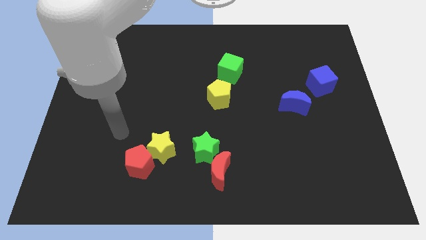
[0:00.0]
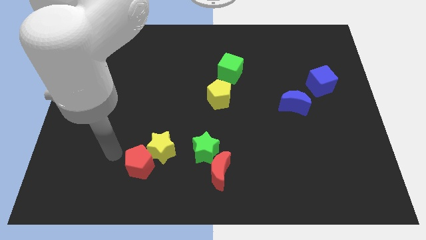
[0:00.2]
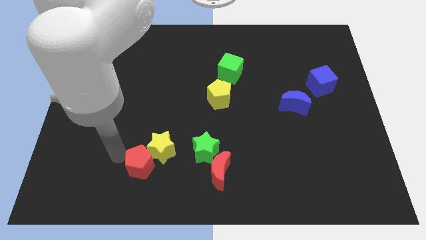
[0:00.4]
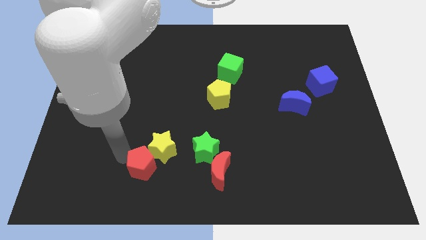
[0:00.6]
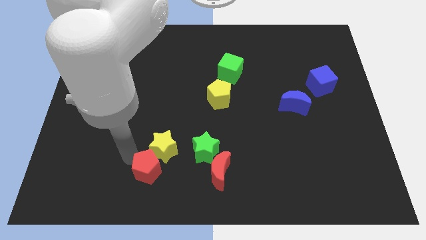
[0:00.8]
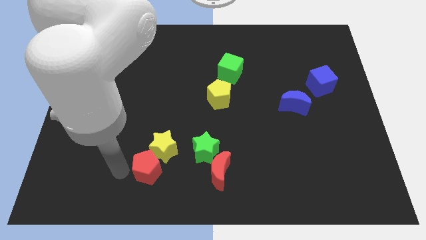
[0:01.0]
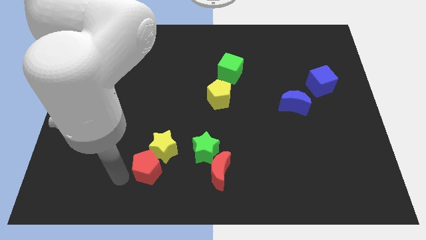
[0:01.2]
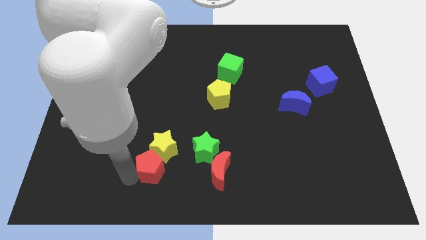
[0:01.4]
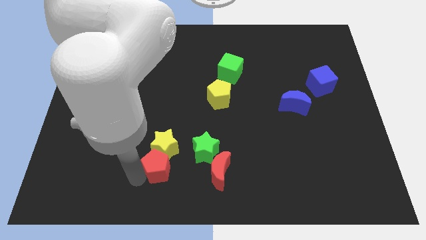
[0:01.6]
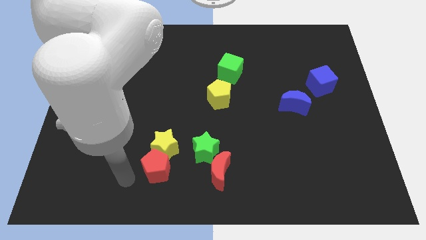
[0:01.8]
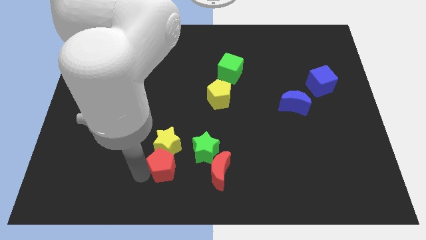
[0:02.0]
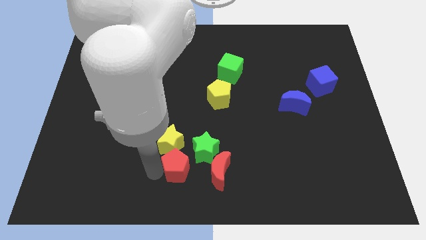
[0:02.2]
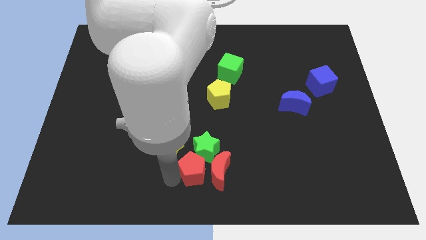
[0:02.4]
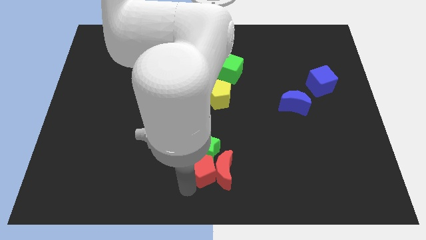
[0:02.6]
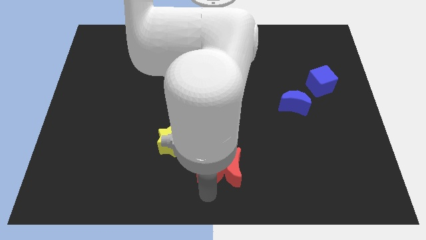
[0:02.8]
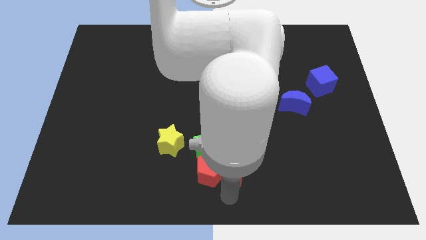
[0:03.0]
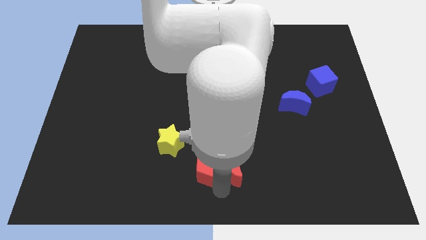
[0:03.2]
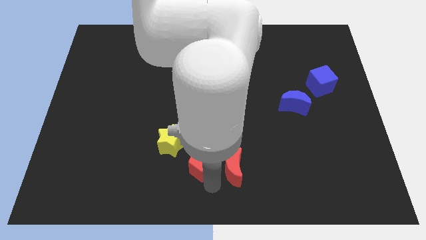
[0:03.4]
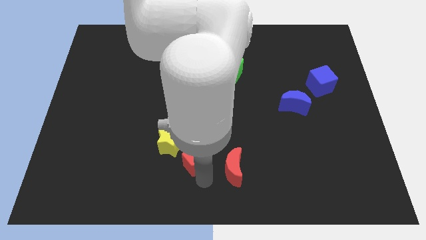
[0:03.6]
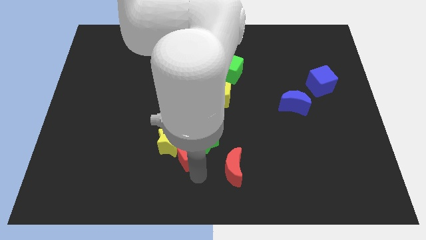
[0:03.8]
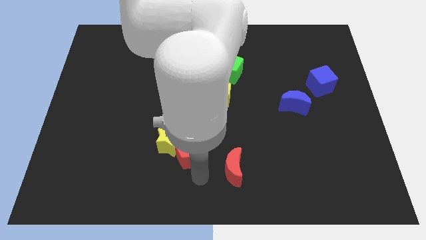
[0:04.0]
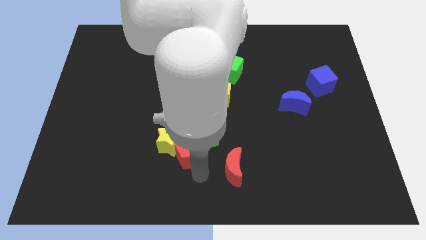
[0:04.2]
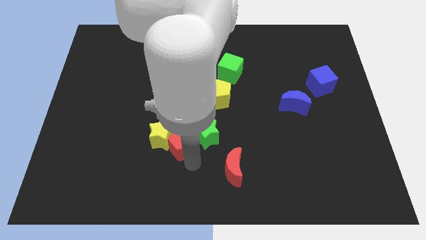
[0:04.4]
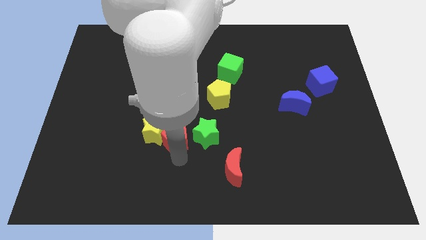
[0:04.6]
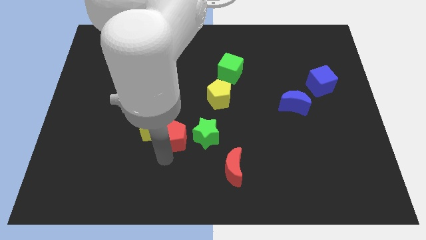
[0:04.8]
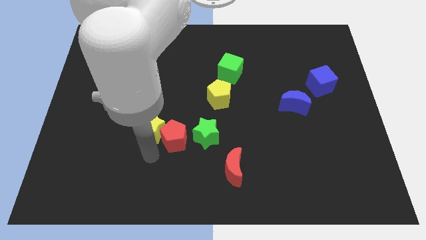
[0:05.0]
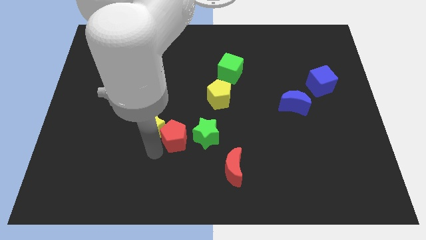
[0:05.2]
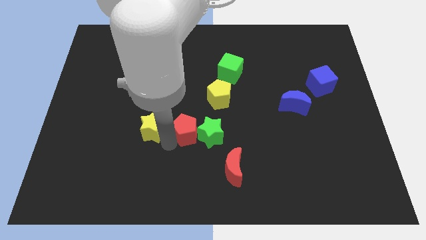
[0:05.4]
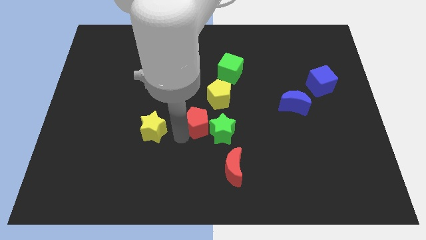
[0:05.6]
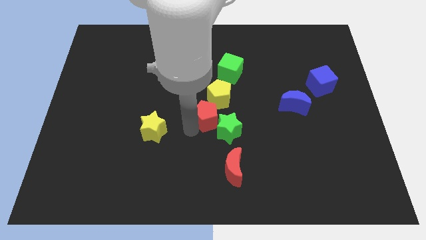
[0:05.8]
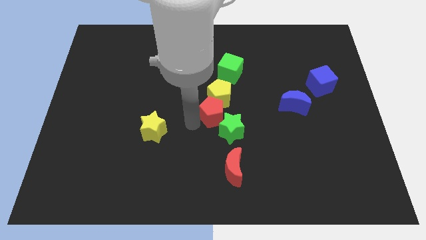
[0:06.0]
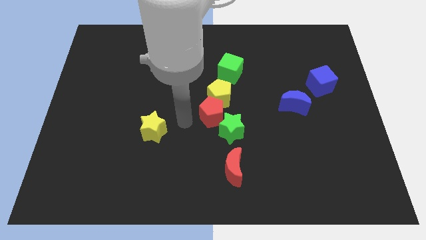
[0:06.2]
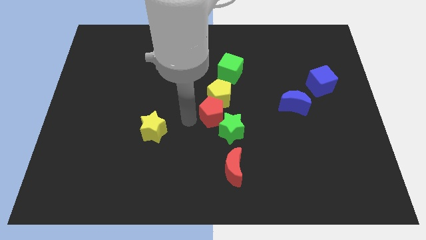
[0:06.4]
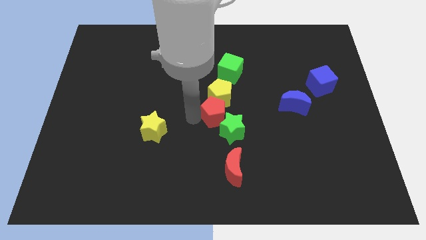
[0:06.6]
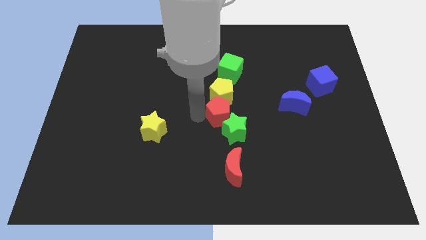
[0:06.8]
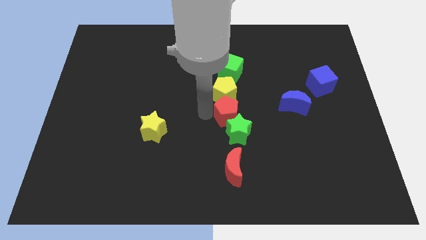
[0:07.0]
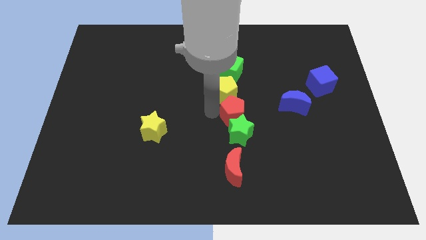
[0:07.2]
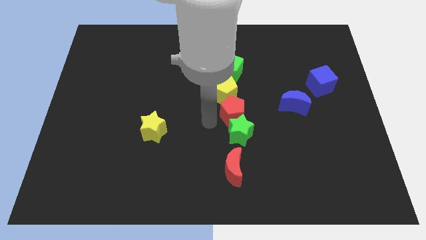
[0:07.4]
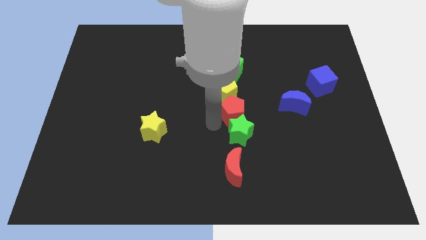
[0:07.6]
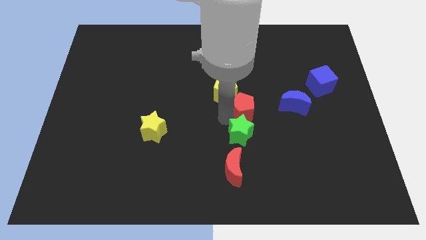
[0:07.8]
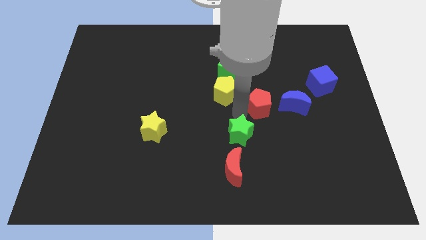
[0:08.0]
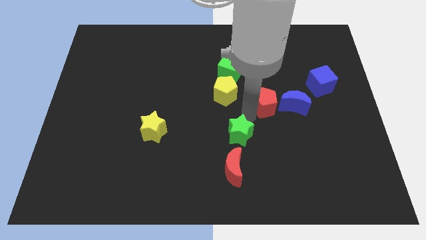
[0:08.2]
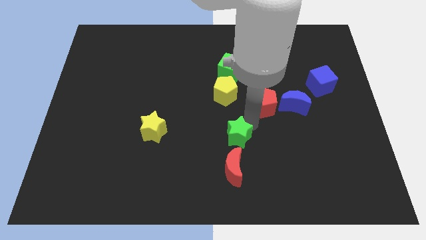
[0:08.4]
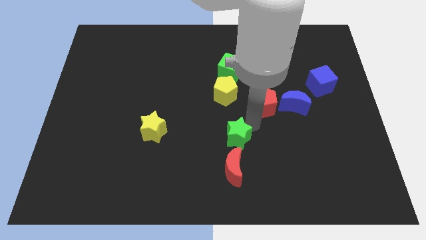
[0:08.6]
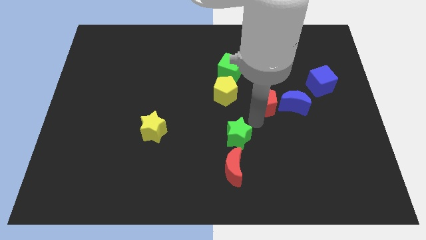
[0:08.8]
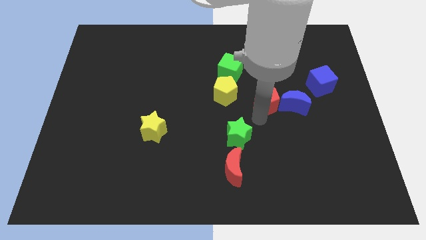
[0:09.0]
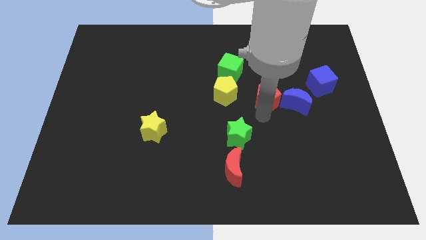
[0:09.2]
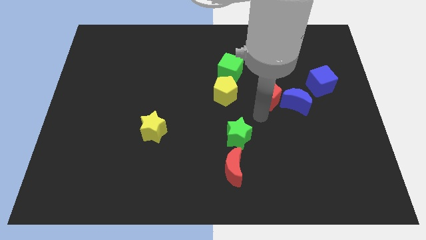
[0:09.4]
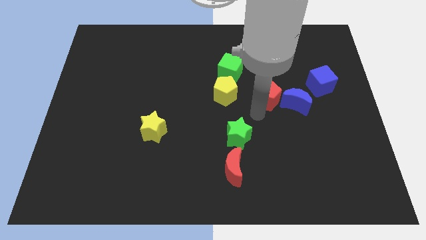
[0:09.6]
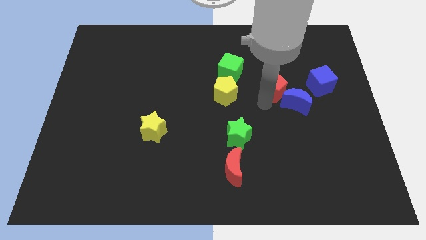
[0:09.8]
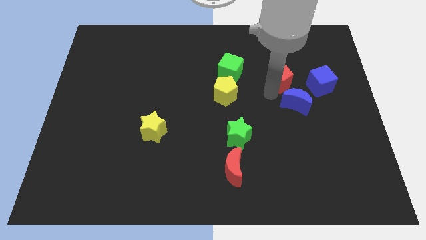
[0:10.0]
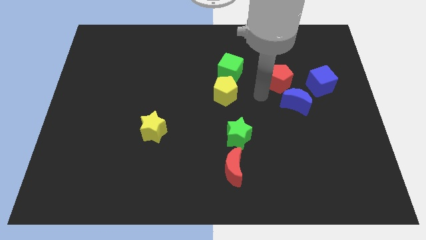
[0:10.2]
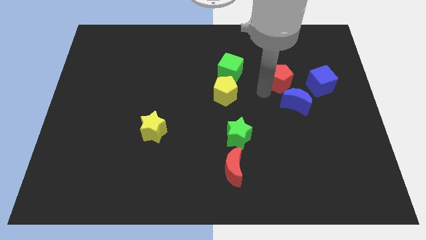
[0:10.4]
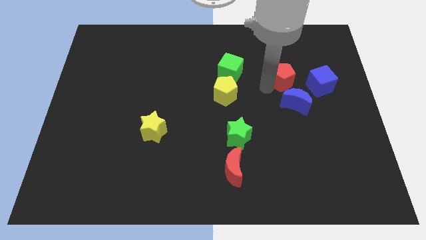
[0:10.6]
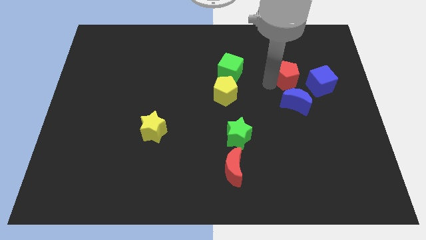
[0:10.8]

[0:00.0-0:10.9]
put the red pentagon to the top left side of the blue cube
